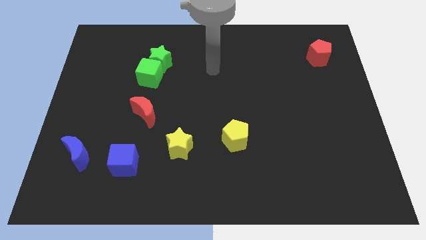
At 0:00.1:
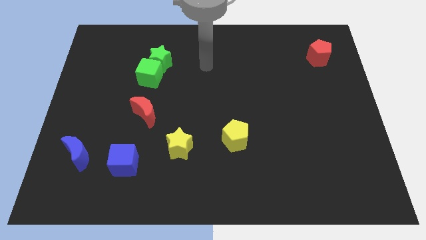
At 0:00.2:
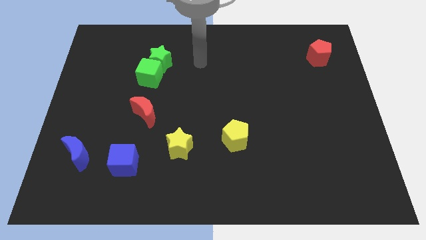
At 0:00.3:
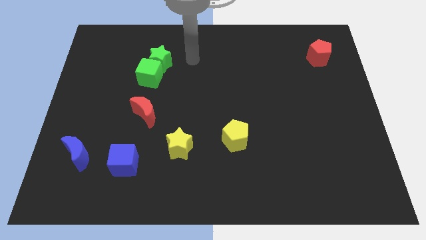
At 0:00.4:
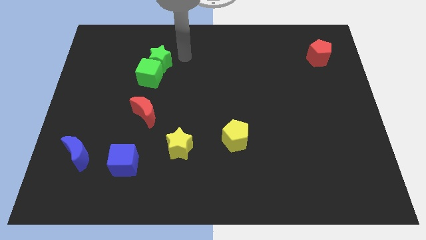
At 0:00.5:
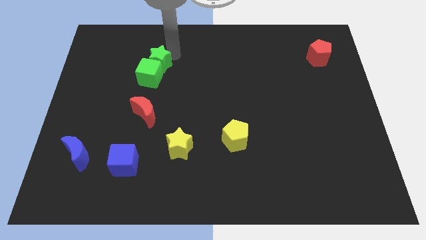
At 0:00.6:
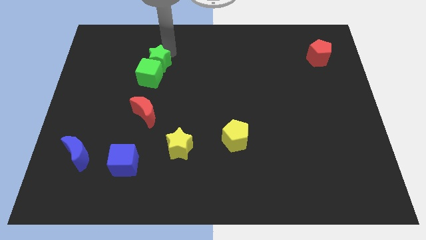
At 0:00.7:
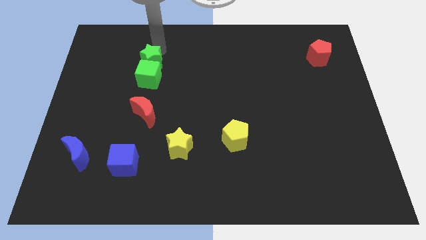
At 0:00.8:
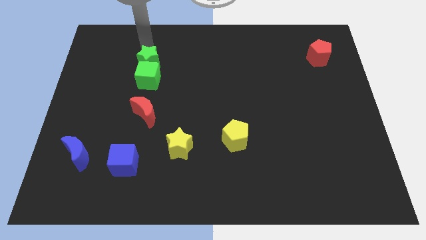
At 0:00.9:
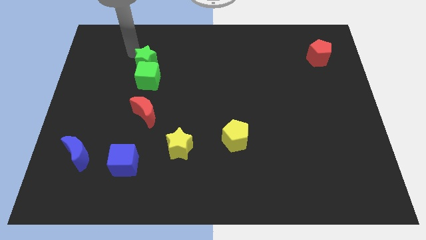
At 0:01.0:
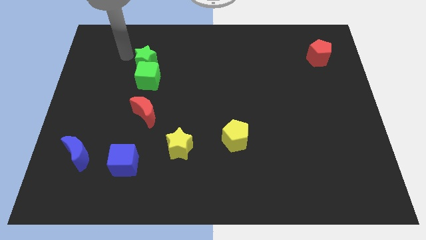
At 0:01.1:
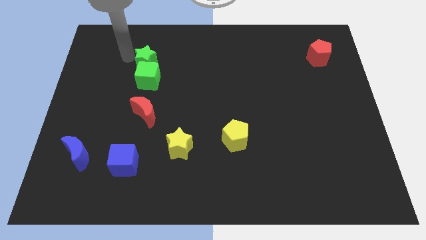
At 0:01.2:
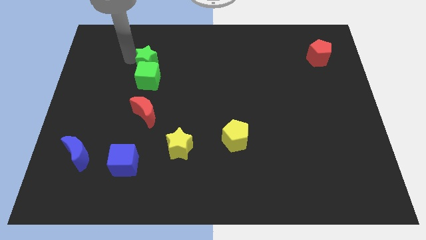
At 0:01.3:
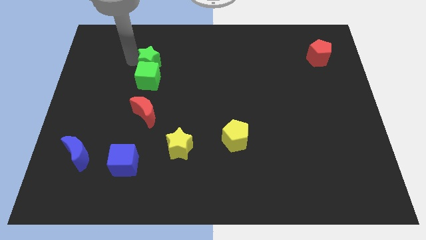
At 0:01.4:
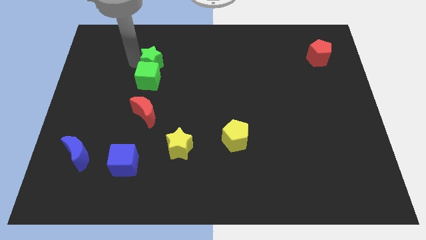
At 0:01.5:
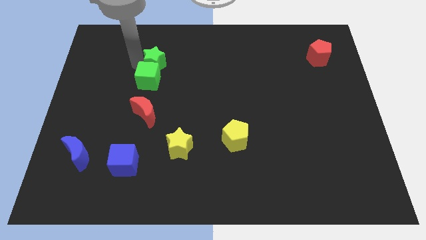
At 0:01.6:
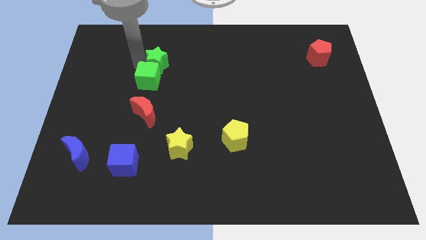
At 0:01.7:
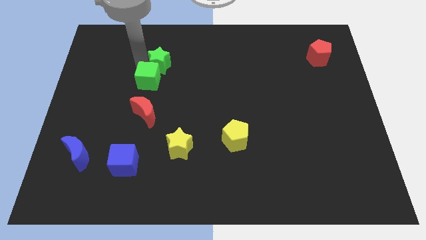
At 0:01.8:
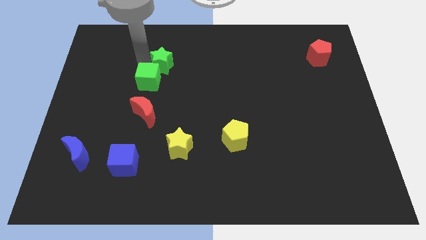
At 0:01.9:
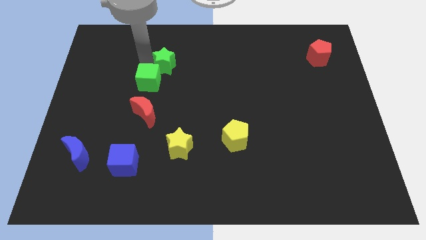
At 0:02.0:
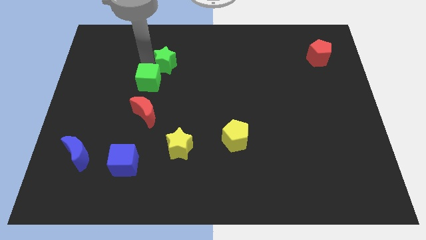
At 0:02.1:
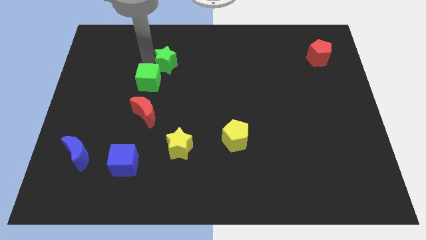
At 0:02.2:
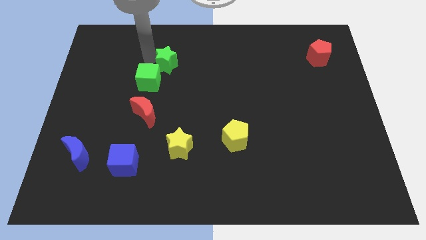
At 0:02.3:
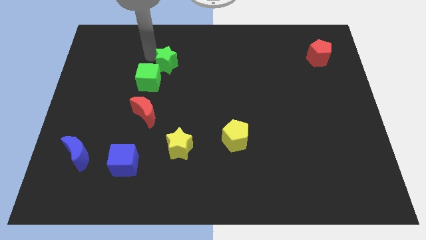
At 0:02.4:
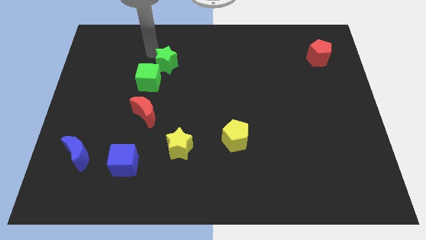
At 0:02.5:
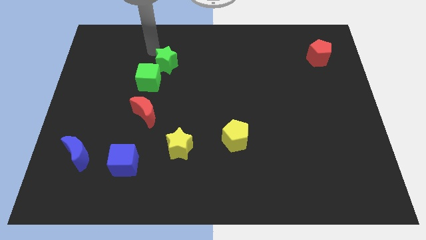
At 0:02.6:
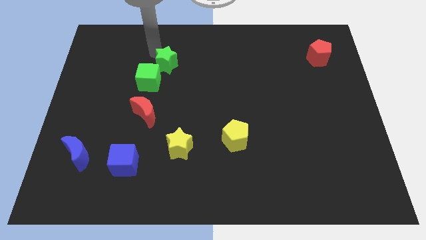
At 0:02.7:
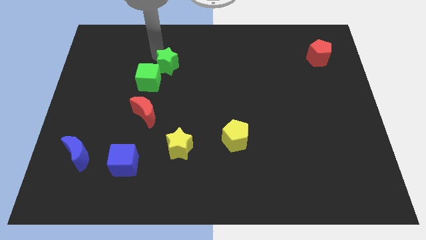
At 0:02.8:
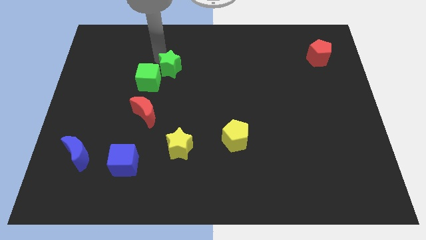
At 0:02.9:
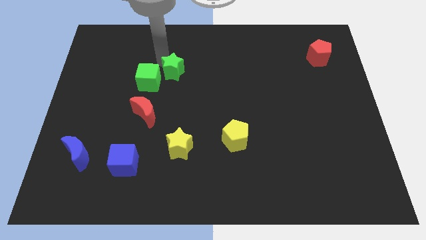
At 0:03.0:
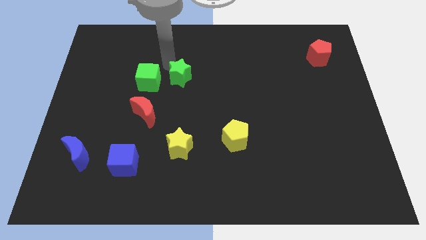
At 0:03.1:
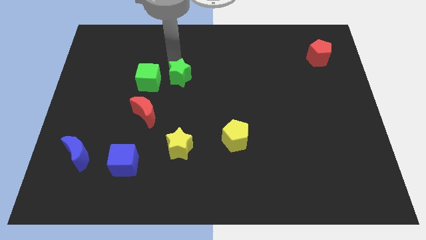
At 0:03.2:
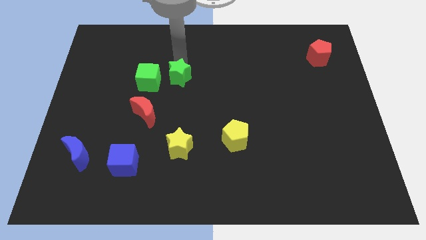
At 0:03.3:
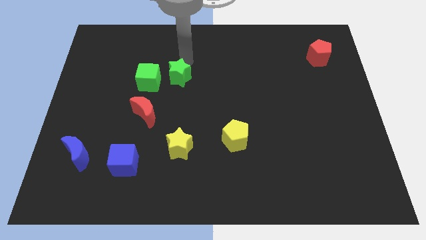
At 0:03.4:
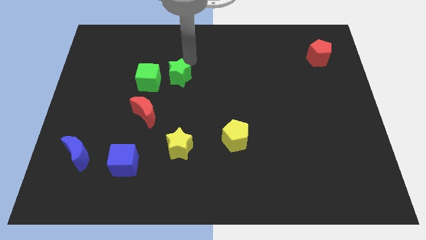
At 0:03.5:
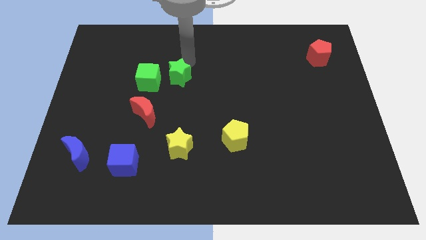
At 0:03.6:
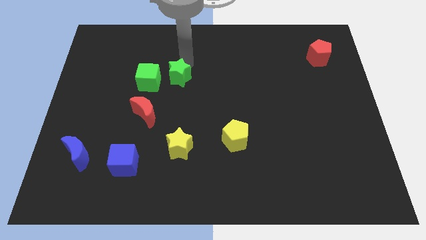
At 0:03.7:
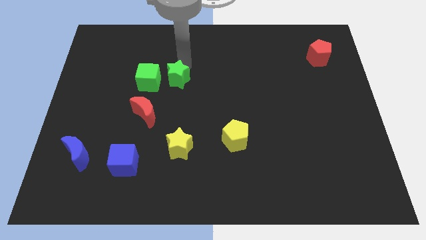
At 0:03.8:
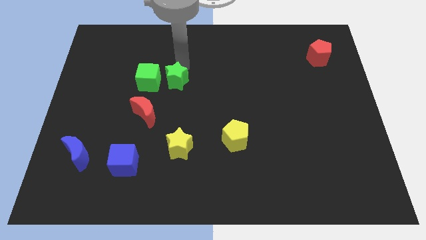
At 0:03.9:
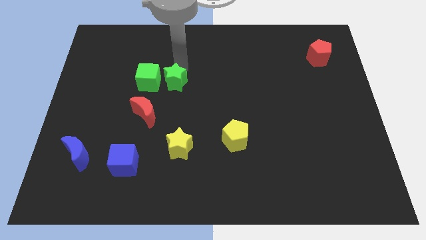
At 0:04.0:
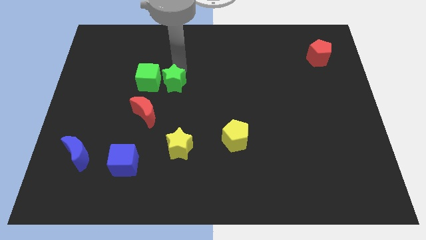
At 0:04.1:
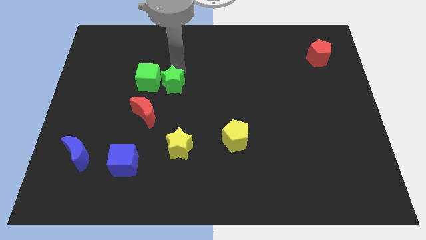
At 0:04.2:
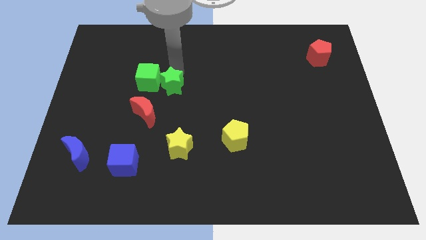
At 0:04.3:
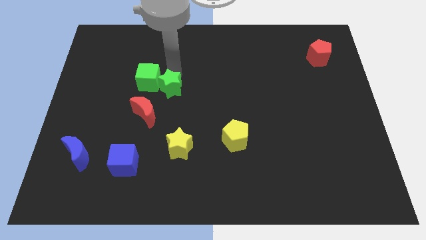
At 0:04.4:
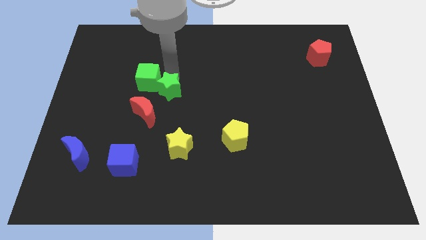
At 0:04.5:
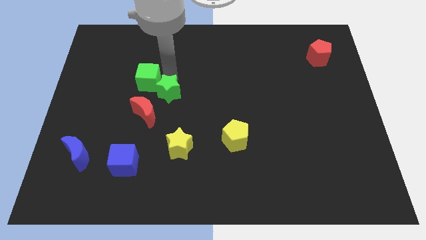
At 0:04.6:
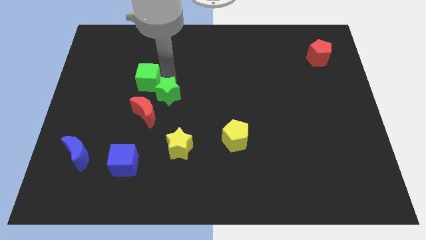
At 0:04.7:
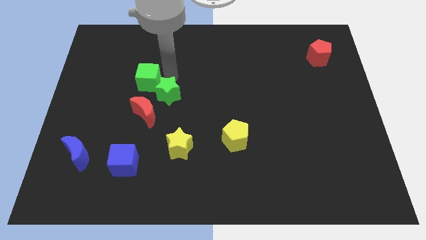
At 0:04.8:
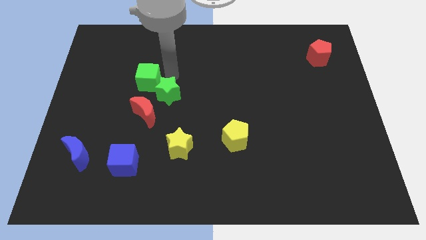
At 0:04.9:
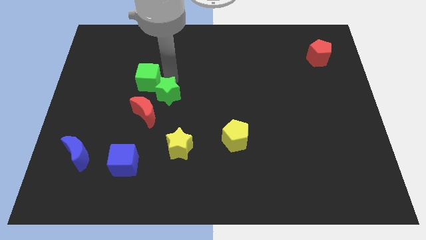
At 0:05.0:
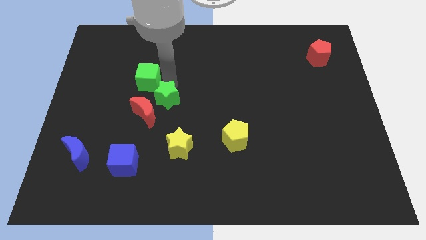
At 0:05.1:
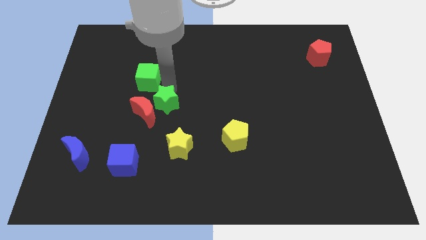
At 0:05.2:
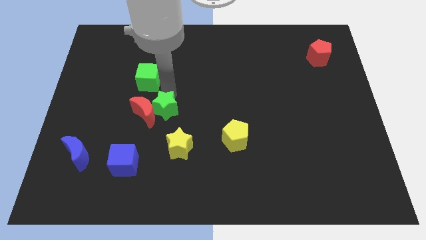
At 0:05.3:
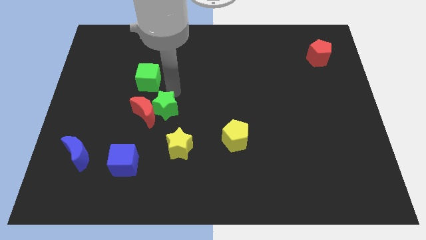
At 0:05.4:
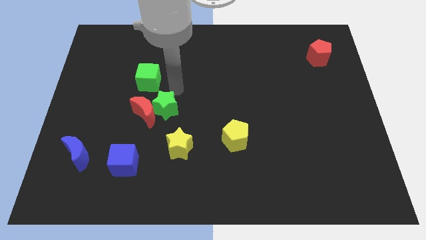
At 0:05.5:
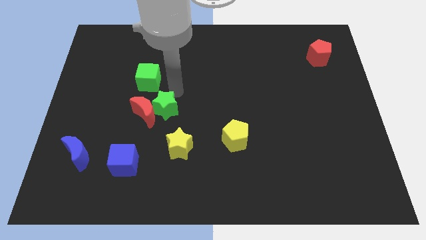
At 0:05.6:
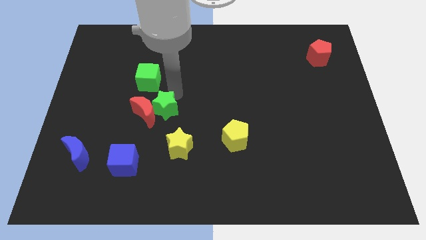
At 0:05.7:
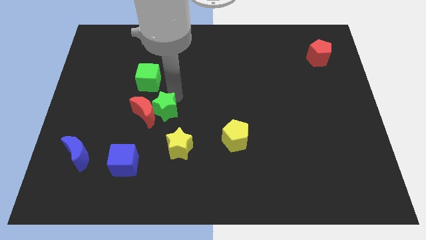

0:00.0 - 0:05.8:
push the green star to the top left of the yellow star
